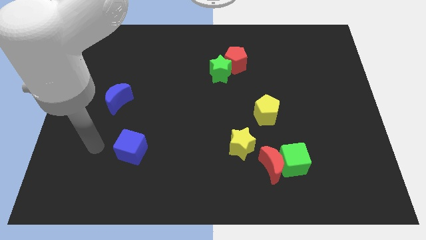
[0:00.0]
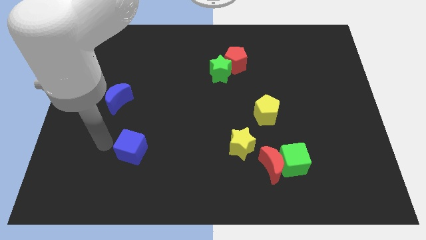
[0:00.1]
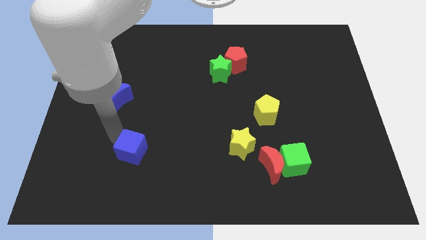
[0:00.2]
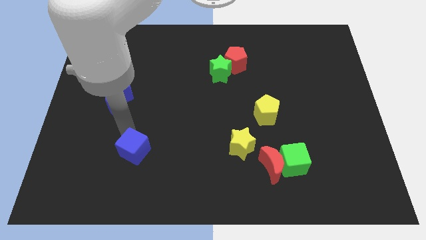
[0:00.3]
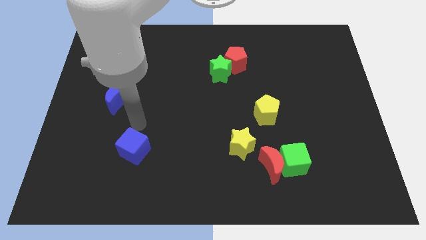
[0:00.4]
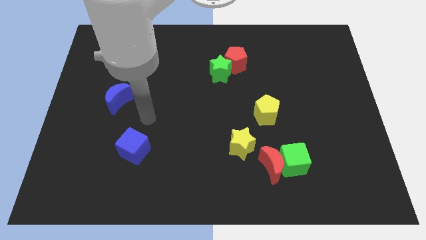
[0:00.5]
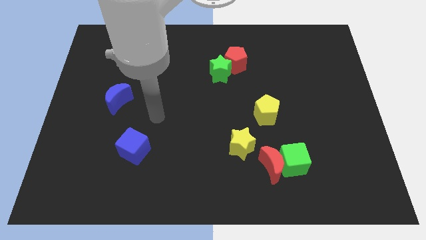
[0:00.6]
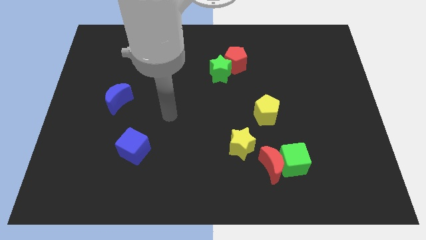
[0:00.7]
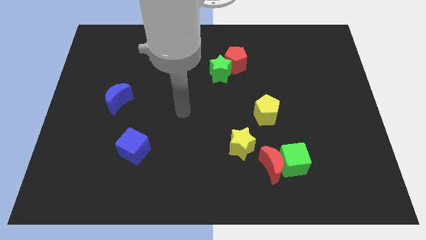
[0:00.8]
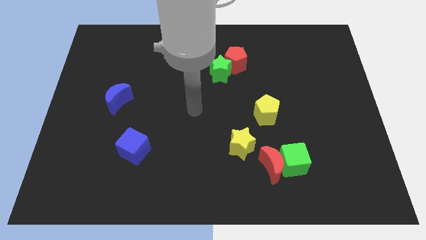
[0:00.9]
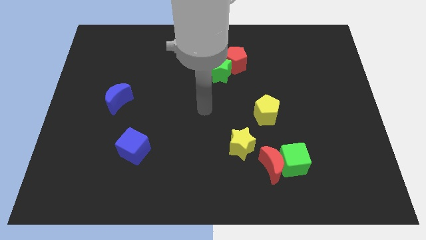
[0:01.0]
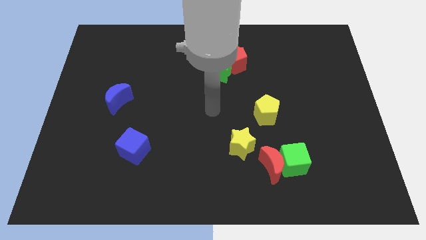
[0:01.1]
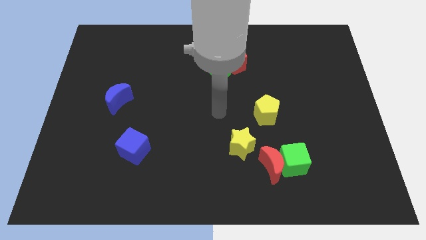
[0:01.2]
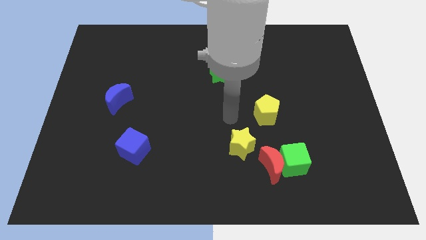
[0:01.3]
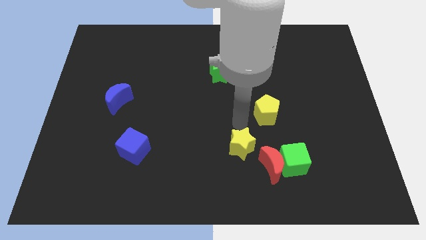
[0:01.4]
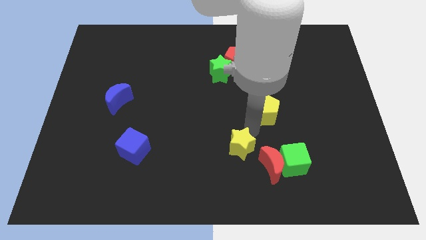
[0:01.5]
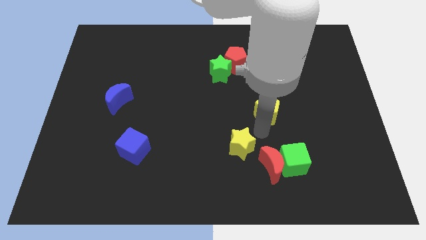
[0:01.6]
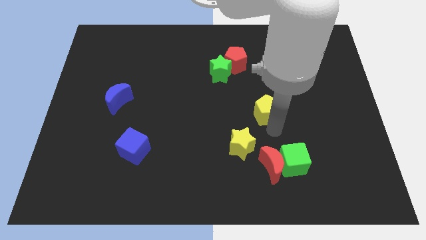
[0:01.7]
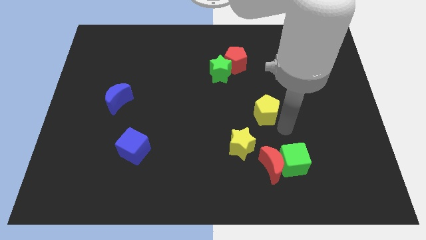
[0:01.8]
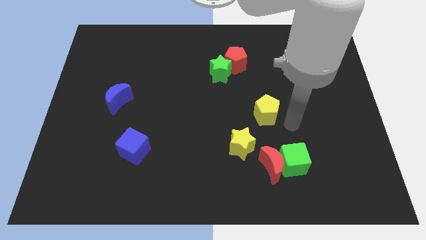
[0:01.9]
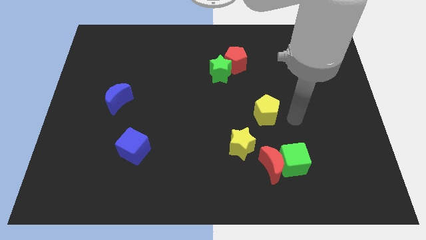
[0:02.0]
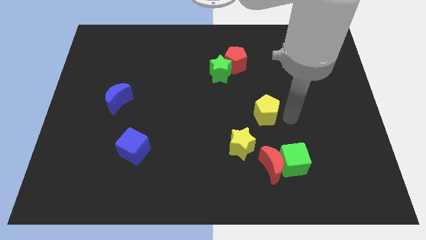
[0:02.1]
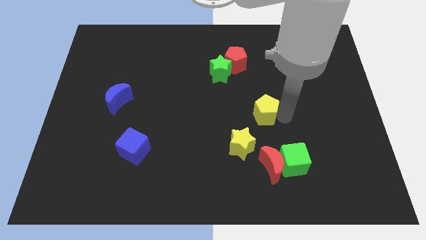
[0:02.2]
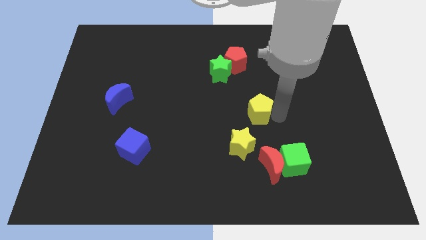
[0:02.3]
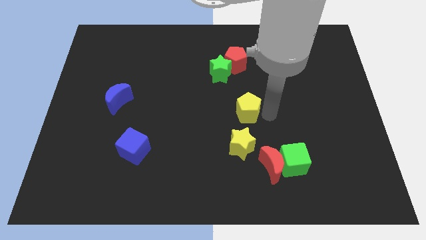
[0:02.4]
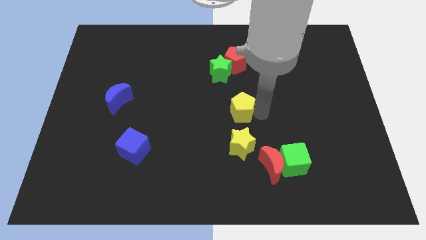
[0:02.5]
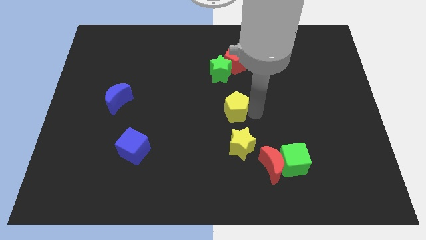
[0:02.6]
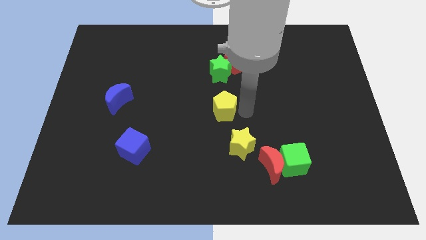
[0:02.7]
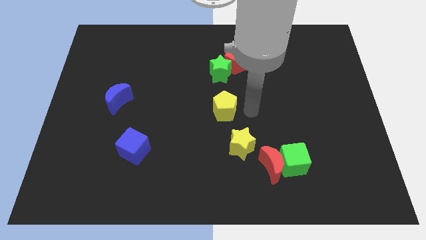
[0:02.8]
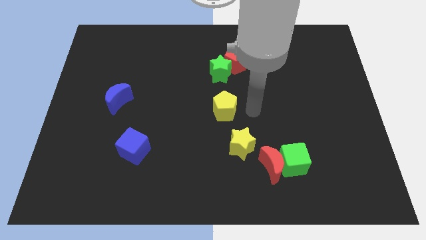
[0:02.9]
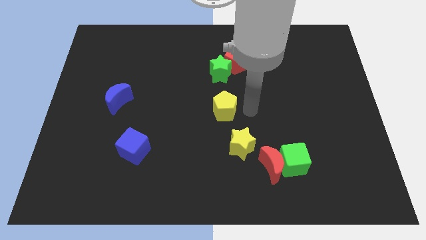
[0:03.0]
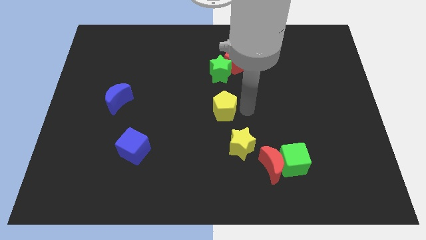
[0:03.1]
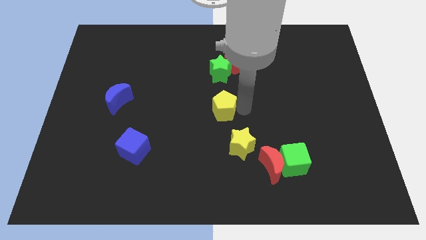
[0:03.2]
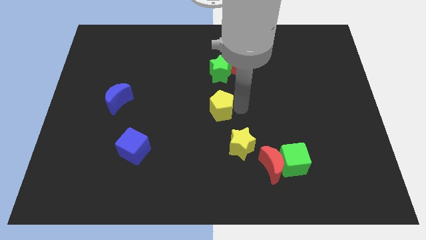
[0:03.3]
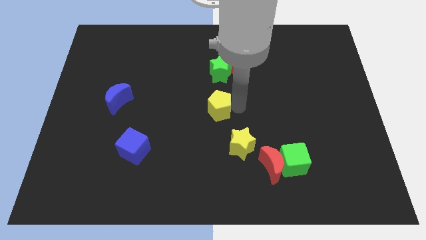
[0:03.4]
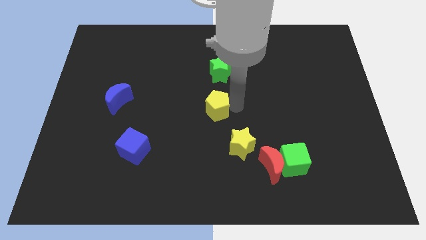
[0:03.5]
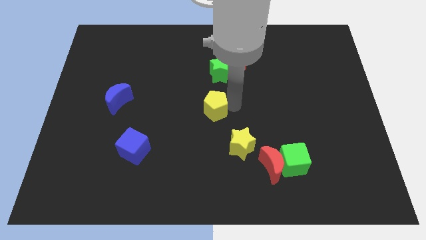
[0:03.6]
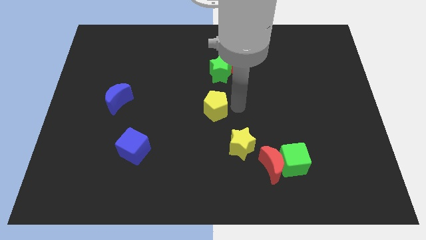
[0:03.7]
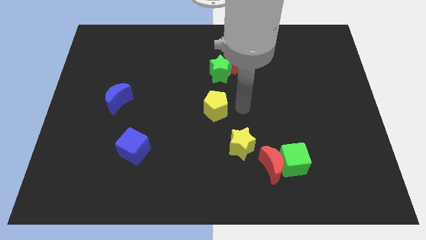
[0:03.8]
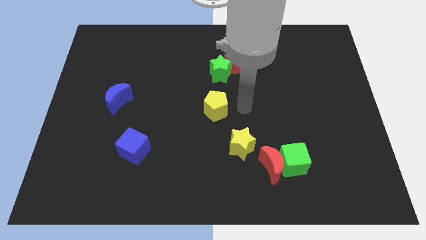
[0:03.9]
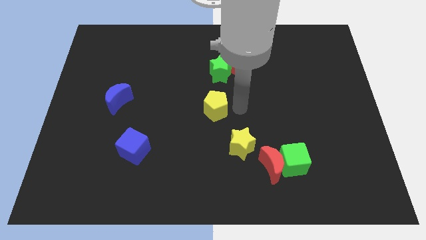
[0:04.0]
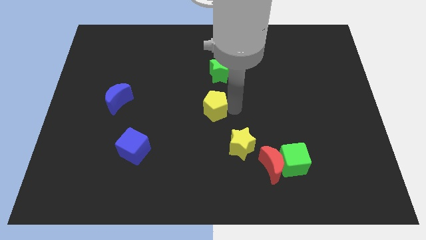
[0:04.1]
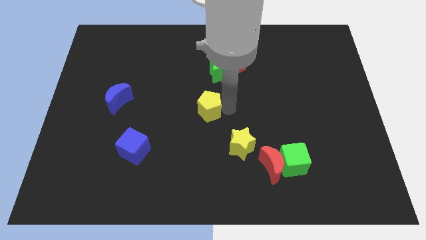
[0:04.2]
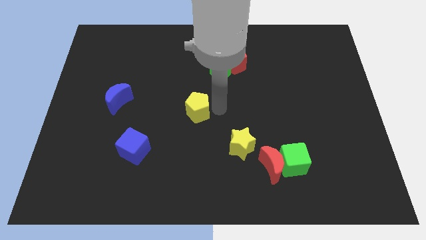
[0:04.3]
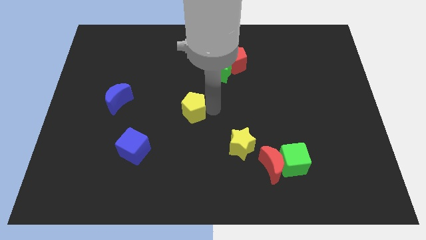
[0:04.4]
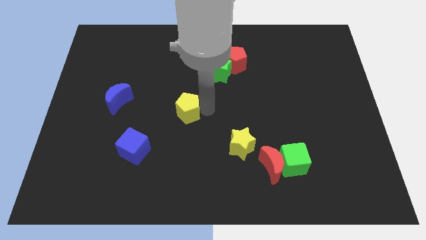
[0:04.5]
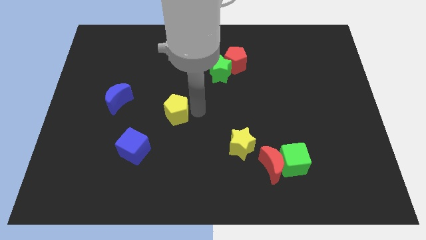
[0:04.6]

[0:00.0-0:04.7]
push the yellow pentagon to the left

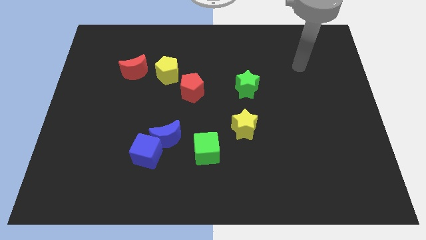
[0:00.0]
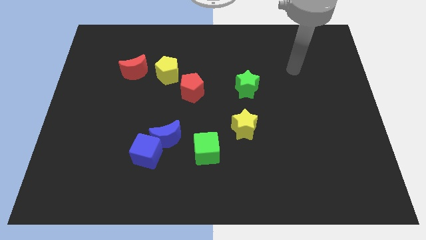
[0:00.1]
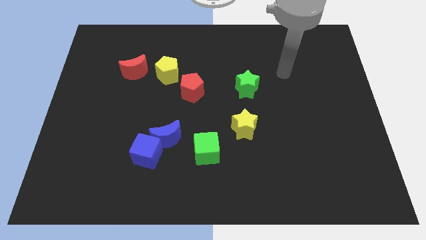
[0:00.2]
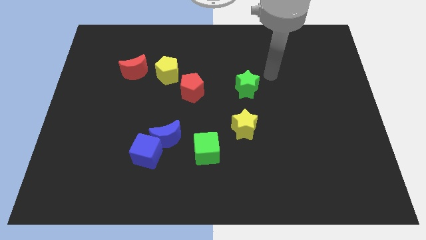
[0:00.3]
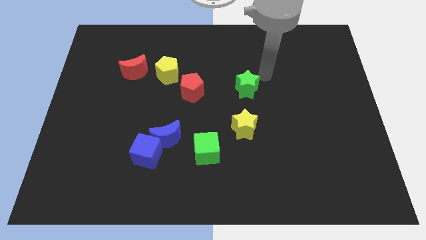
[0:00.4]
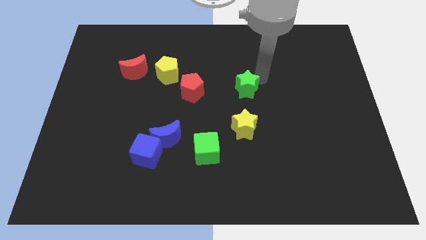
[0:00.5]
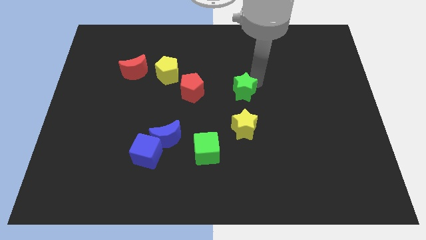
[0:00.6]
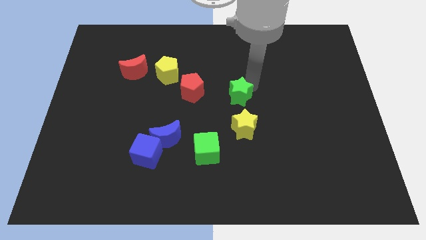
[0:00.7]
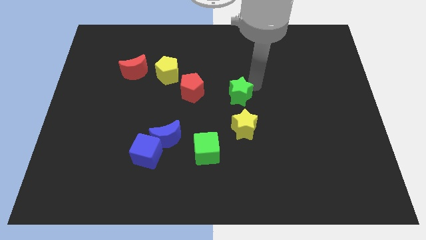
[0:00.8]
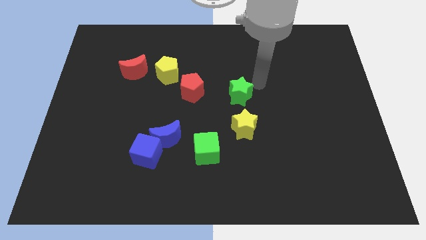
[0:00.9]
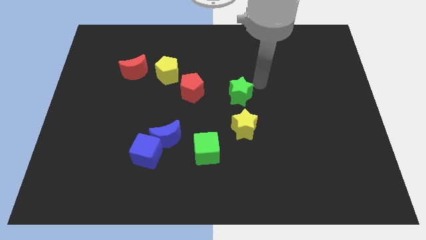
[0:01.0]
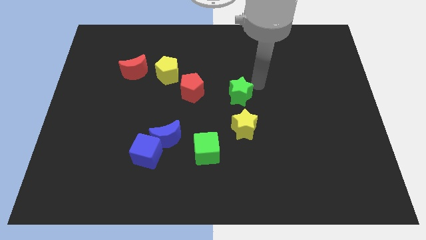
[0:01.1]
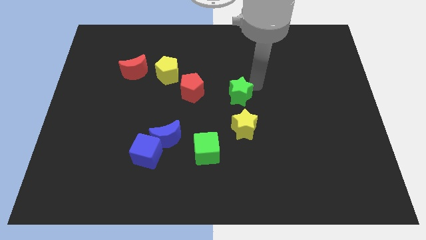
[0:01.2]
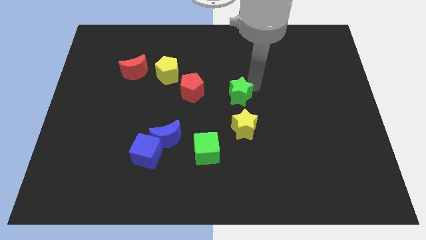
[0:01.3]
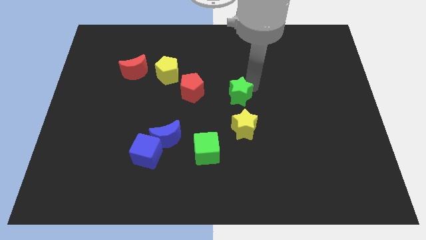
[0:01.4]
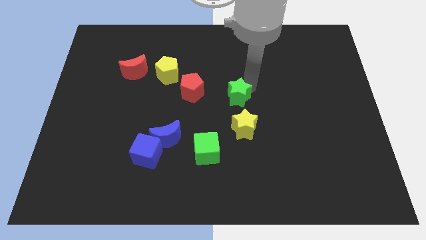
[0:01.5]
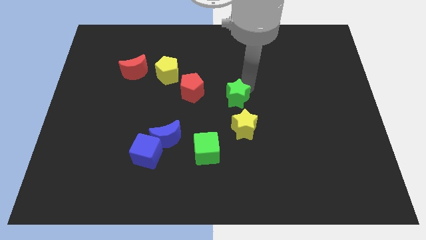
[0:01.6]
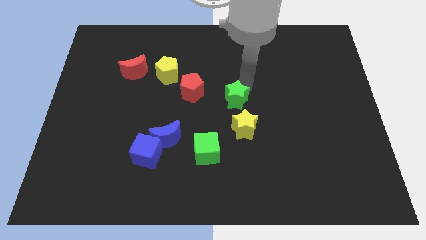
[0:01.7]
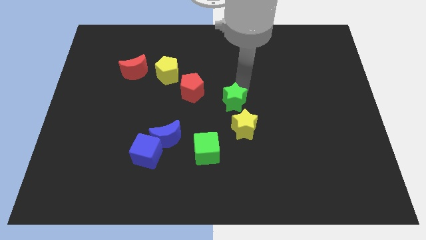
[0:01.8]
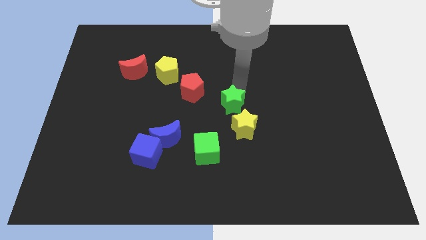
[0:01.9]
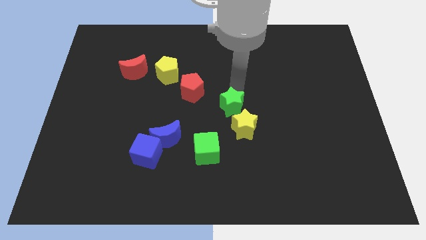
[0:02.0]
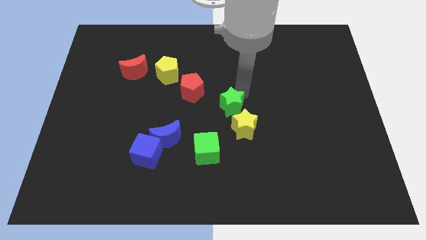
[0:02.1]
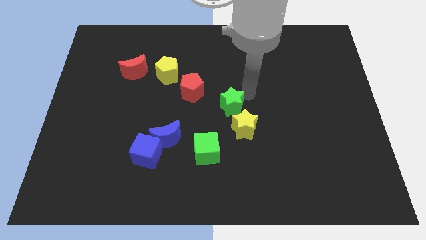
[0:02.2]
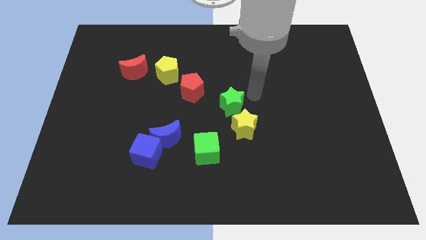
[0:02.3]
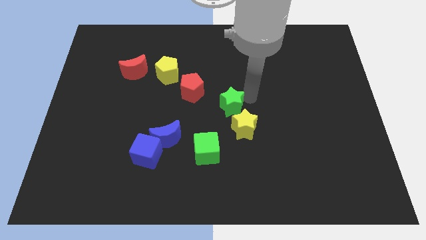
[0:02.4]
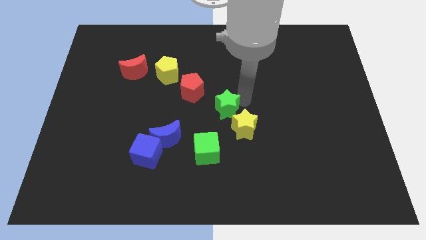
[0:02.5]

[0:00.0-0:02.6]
slightly push the green star downwards and to the left

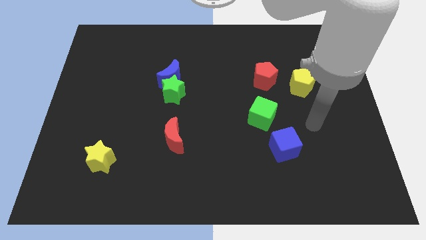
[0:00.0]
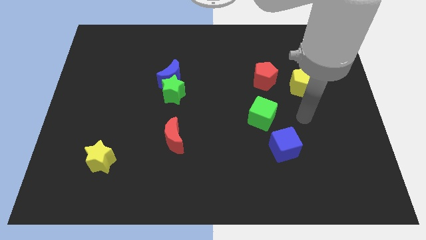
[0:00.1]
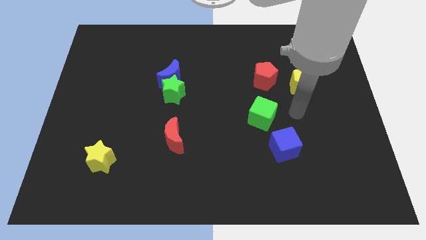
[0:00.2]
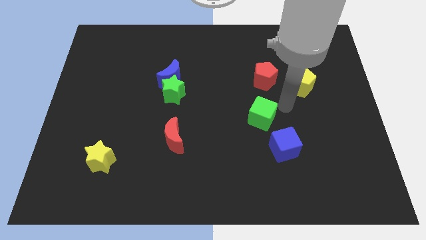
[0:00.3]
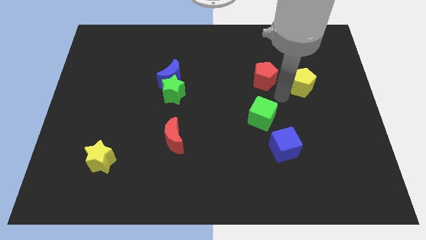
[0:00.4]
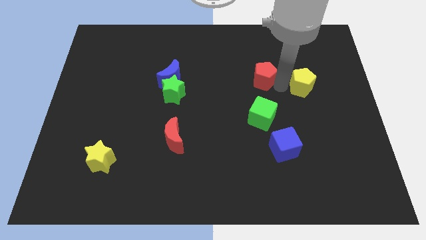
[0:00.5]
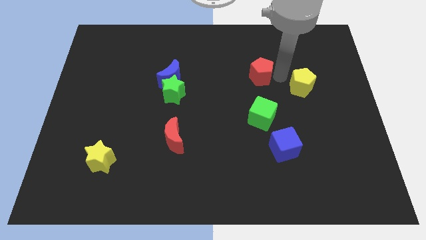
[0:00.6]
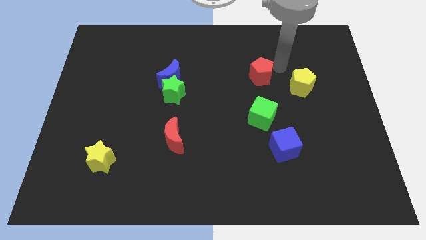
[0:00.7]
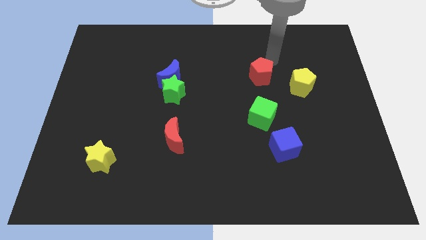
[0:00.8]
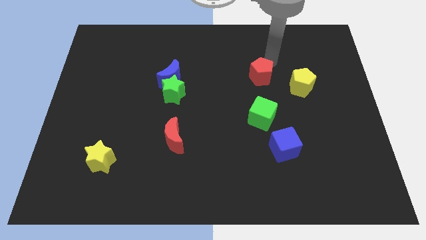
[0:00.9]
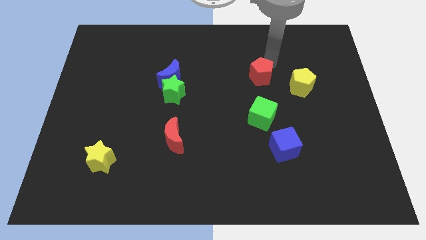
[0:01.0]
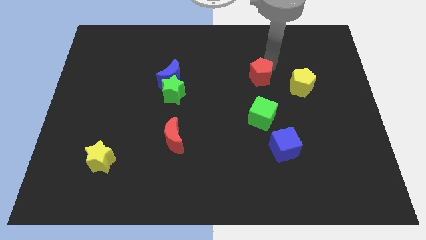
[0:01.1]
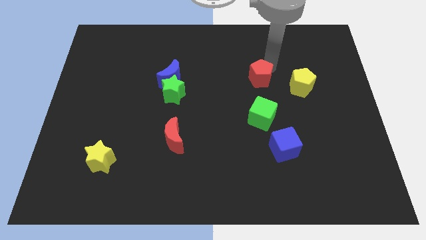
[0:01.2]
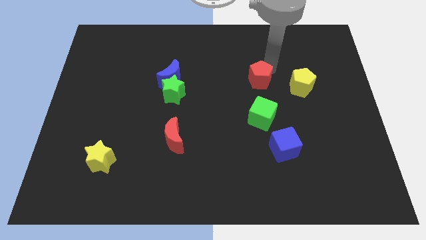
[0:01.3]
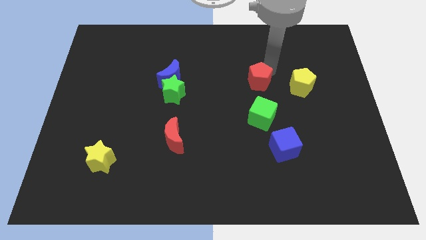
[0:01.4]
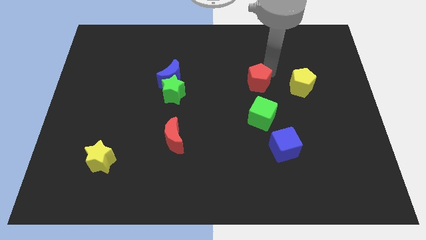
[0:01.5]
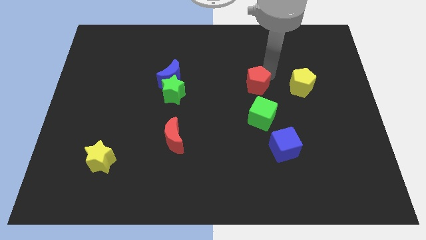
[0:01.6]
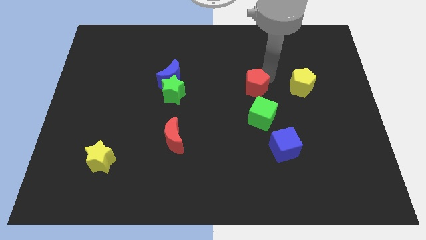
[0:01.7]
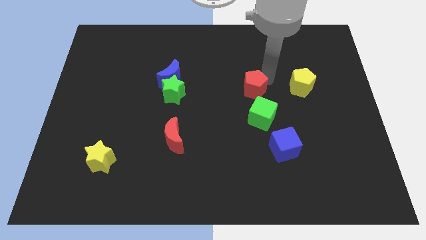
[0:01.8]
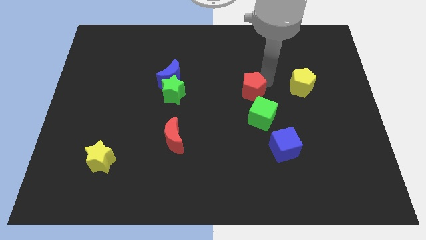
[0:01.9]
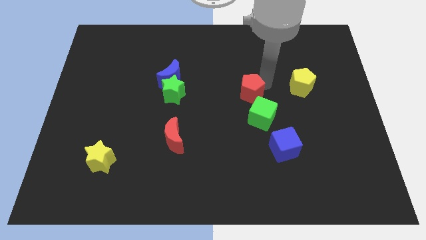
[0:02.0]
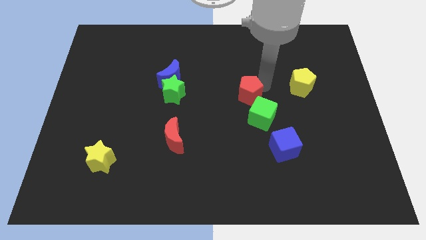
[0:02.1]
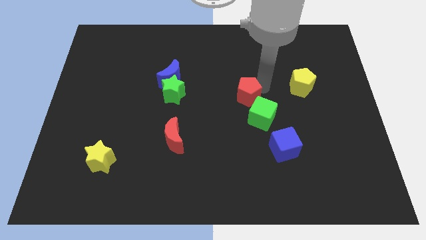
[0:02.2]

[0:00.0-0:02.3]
slide the red pentagon downwards and then left a bit
